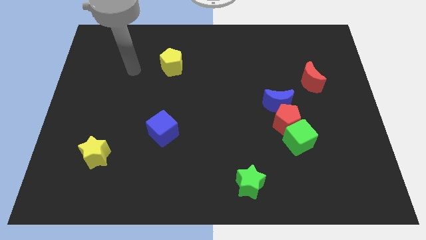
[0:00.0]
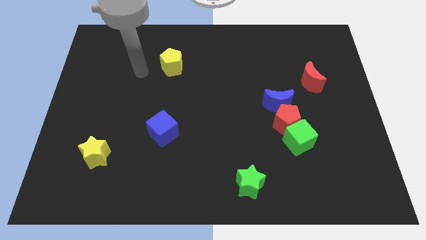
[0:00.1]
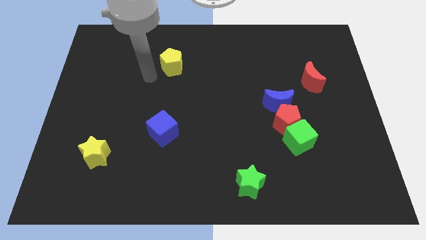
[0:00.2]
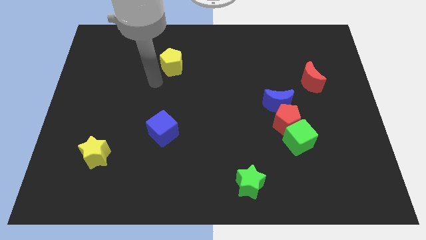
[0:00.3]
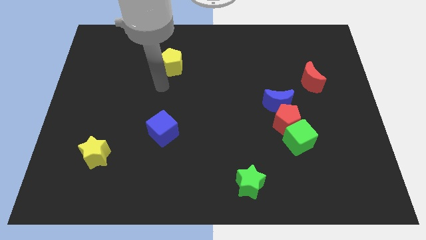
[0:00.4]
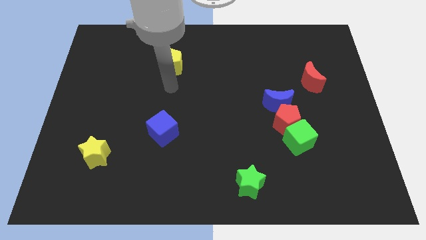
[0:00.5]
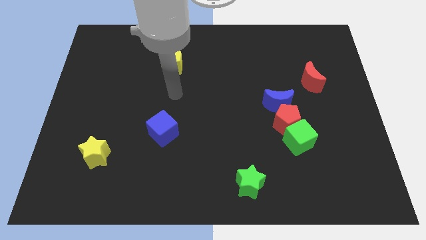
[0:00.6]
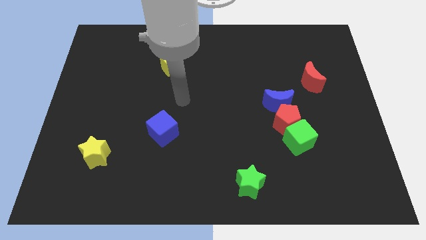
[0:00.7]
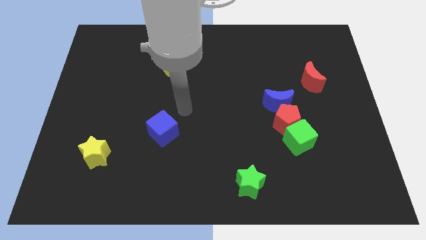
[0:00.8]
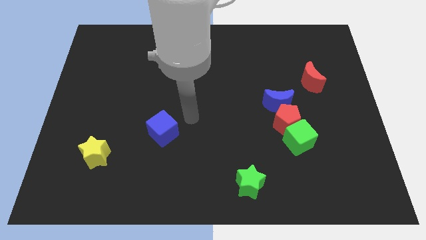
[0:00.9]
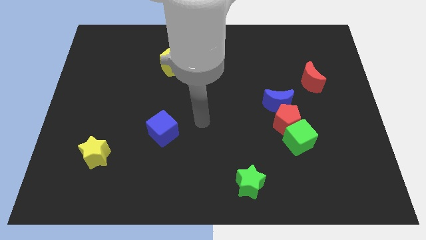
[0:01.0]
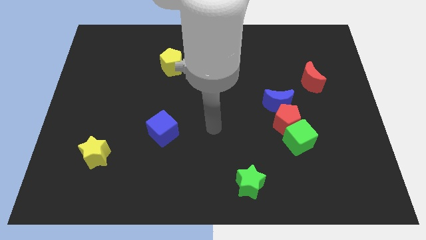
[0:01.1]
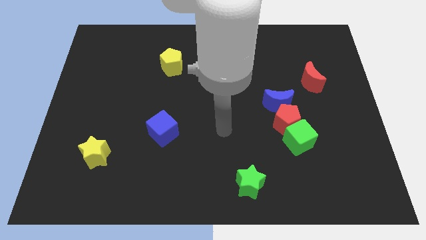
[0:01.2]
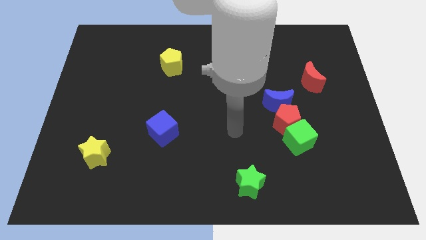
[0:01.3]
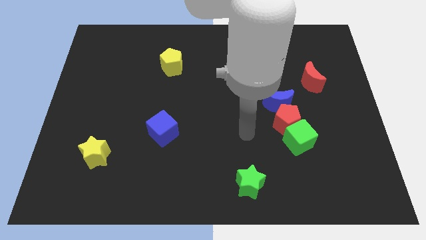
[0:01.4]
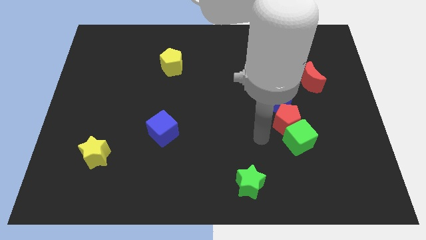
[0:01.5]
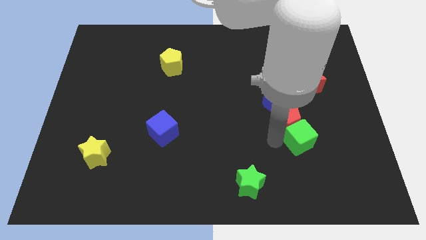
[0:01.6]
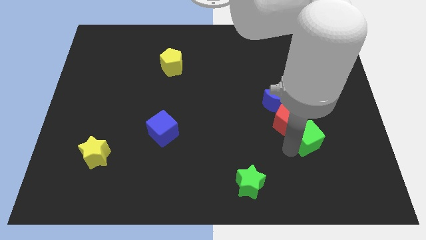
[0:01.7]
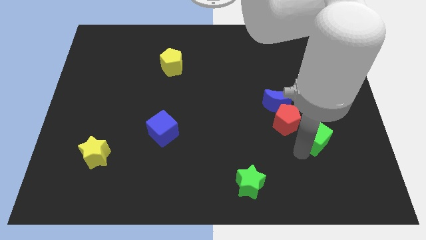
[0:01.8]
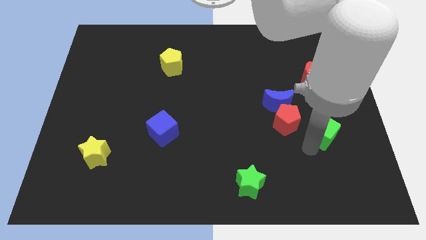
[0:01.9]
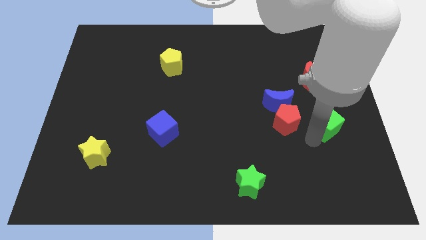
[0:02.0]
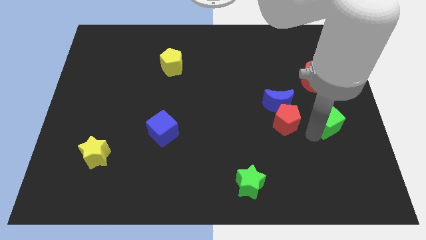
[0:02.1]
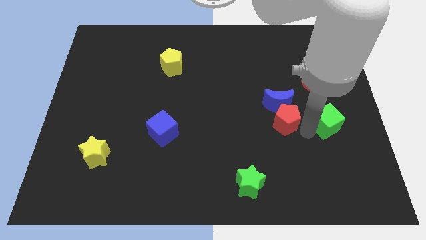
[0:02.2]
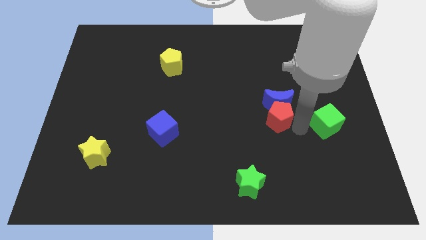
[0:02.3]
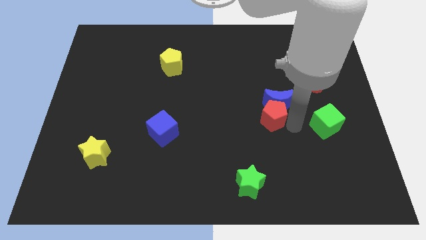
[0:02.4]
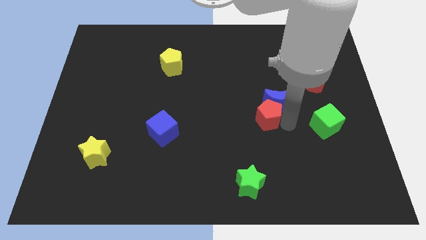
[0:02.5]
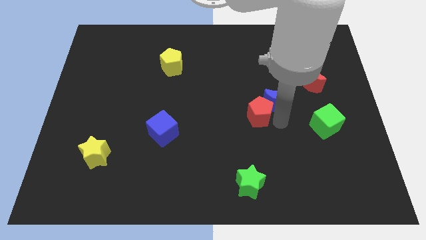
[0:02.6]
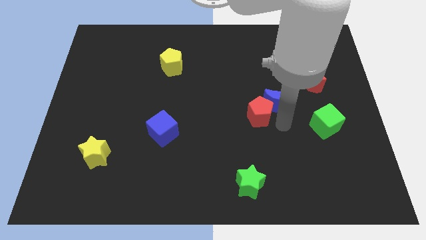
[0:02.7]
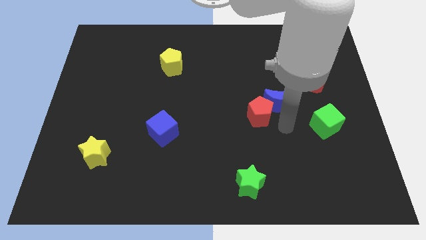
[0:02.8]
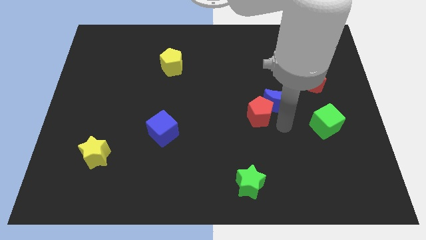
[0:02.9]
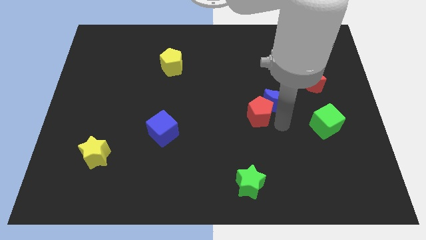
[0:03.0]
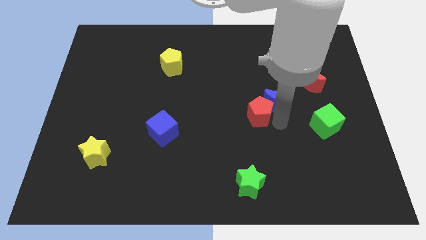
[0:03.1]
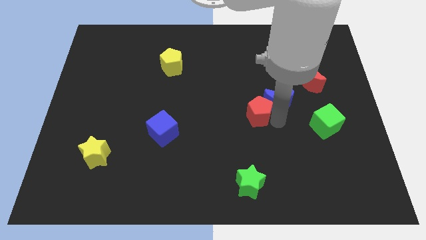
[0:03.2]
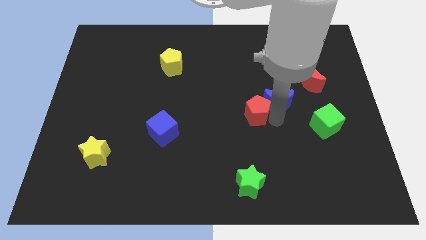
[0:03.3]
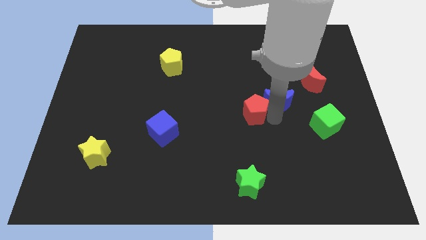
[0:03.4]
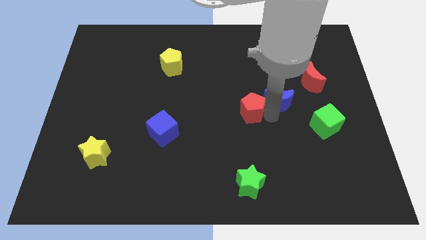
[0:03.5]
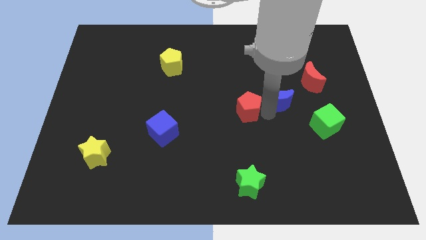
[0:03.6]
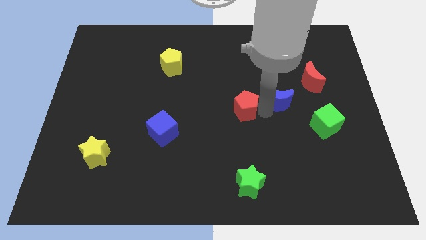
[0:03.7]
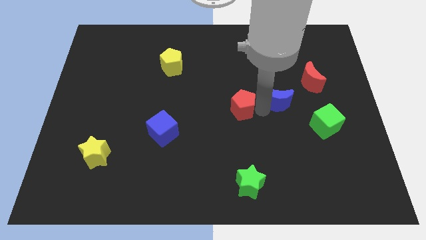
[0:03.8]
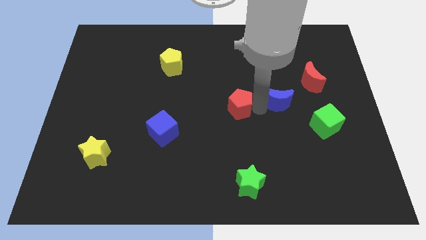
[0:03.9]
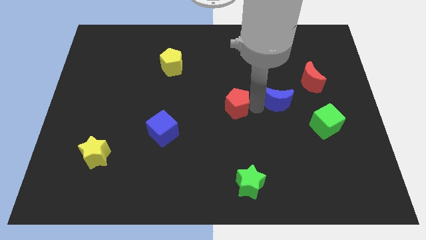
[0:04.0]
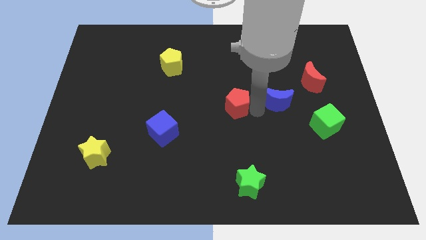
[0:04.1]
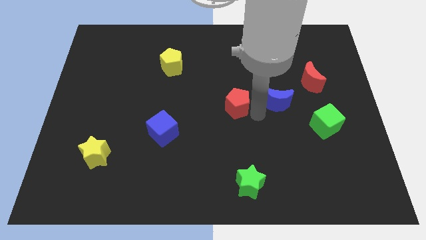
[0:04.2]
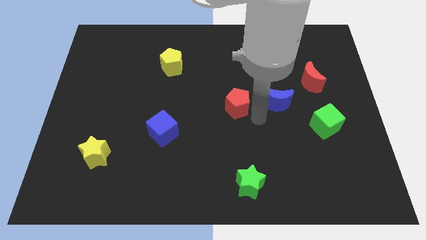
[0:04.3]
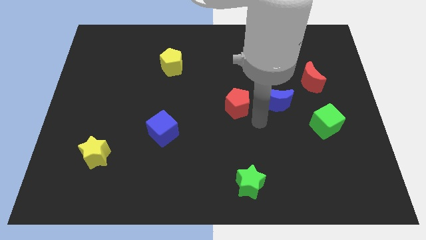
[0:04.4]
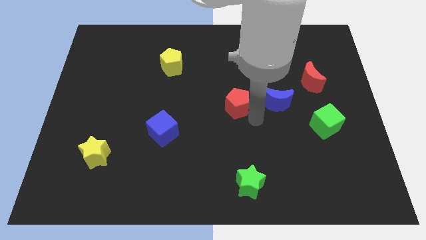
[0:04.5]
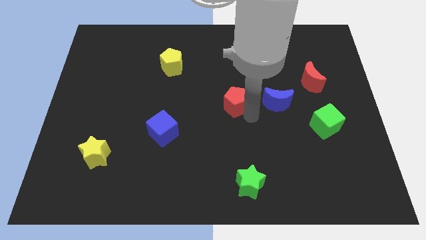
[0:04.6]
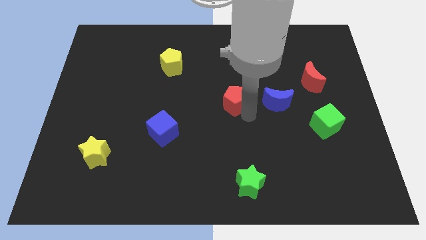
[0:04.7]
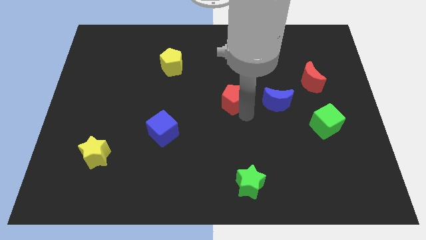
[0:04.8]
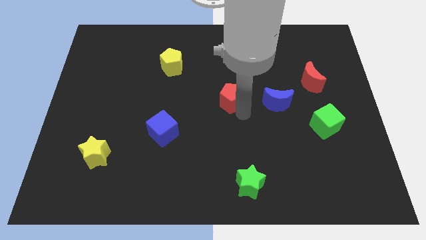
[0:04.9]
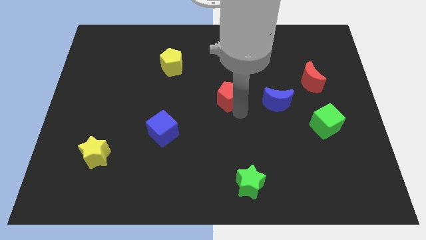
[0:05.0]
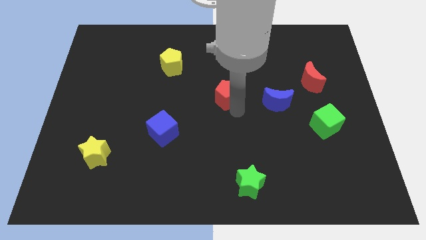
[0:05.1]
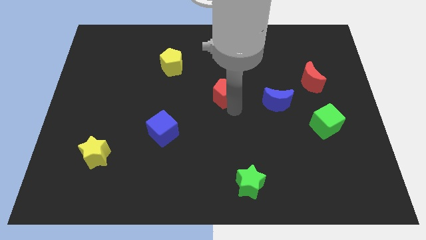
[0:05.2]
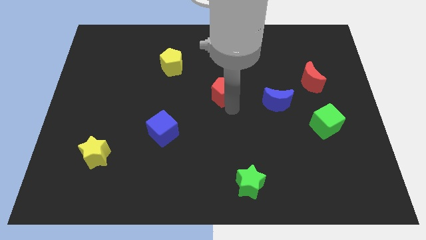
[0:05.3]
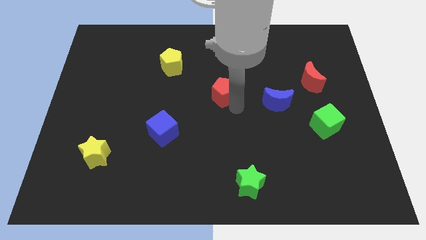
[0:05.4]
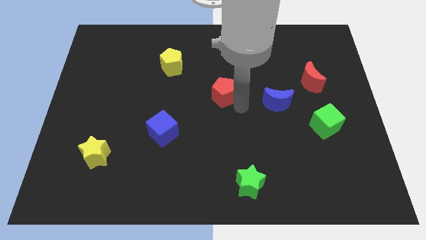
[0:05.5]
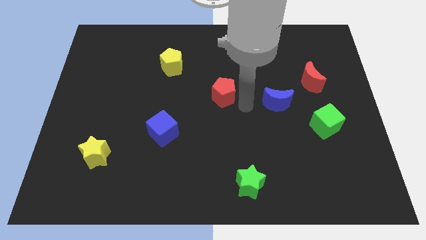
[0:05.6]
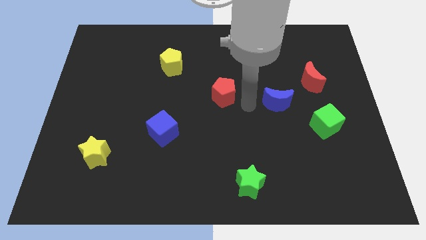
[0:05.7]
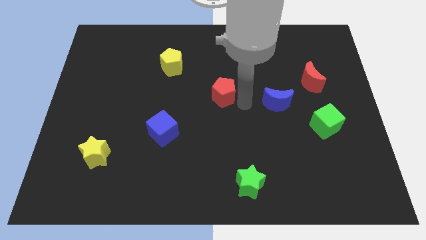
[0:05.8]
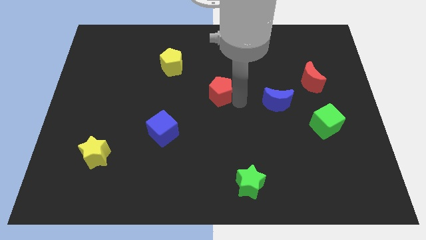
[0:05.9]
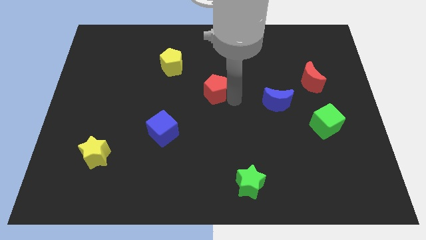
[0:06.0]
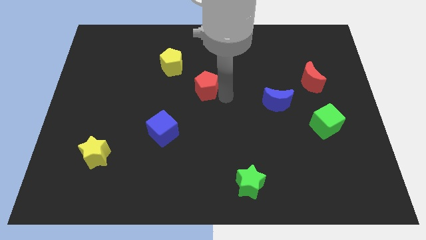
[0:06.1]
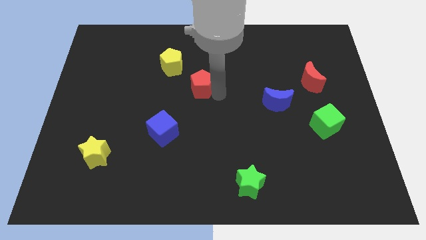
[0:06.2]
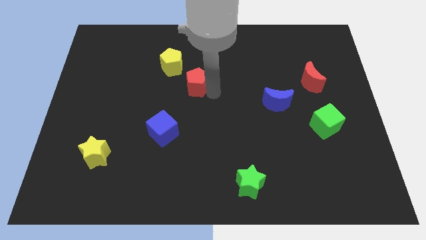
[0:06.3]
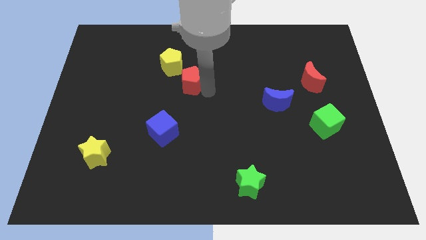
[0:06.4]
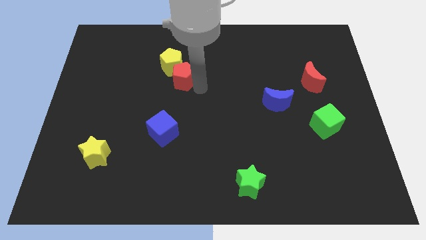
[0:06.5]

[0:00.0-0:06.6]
push the red pentagon towards the yellow pentagon
